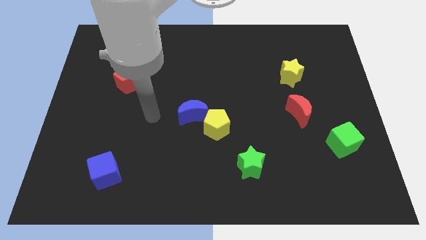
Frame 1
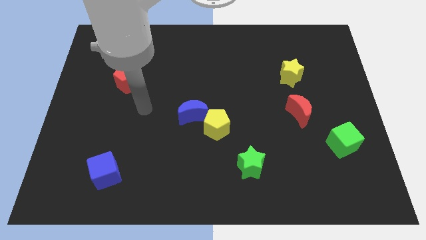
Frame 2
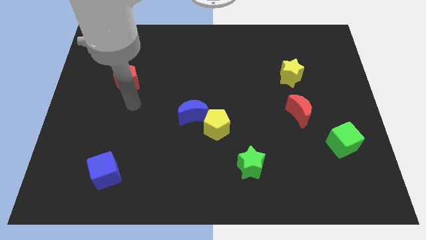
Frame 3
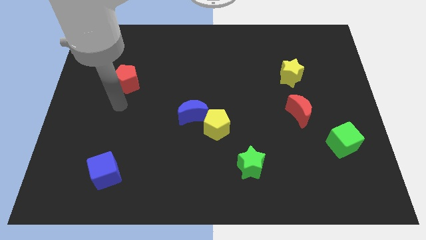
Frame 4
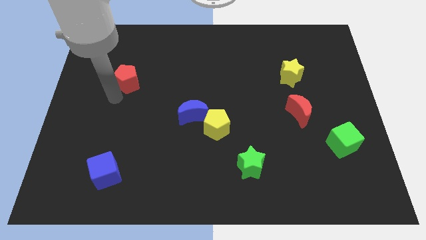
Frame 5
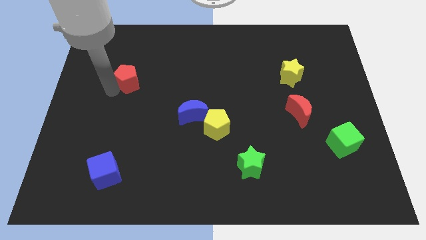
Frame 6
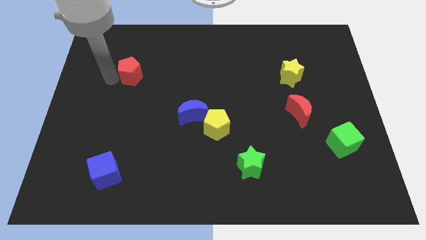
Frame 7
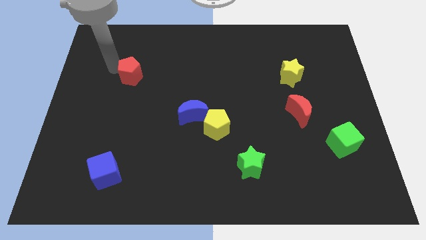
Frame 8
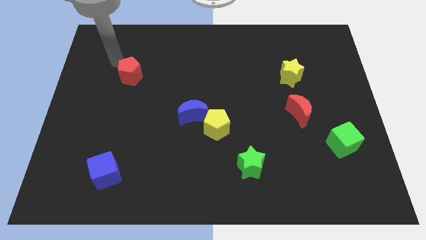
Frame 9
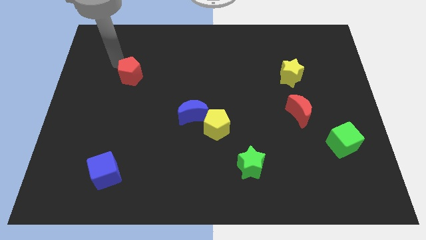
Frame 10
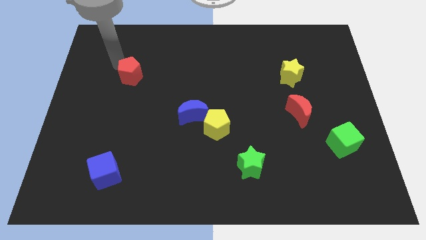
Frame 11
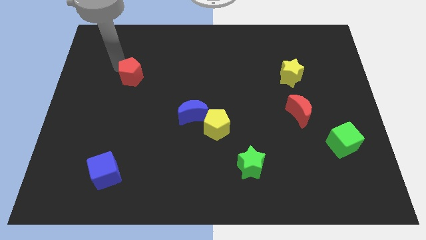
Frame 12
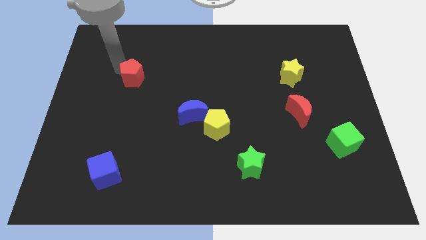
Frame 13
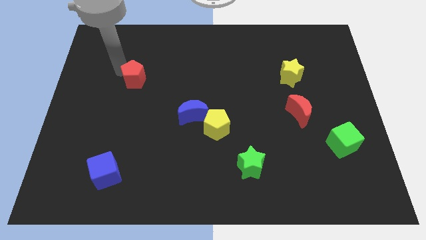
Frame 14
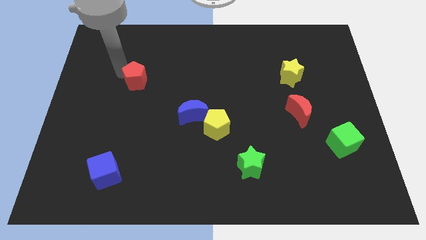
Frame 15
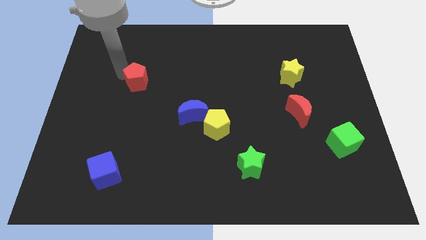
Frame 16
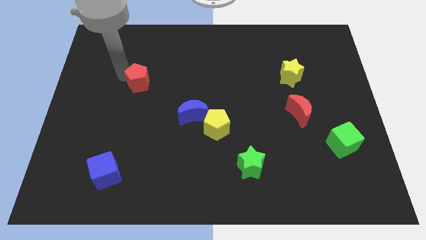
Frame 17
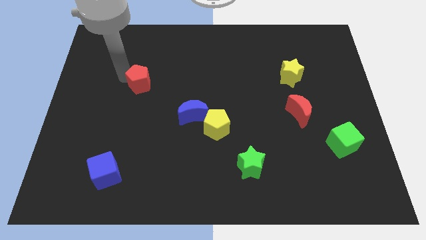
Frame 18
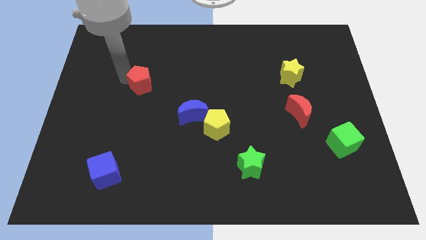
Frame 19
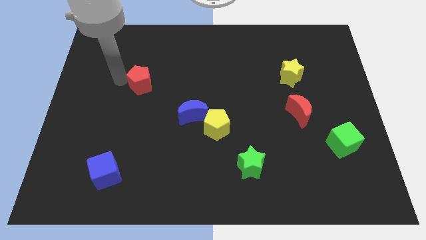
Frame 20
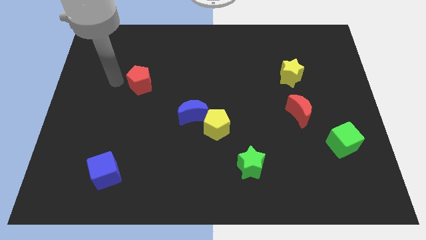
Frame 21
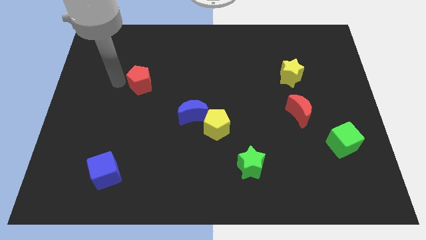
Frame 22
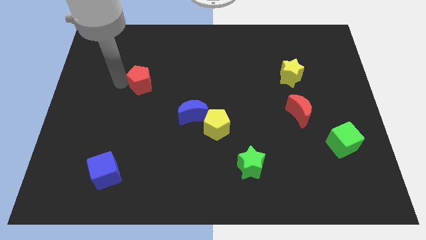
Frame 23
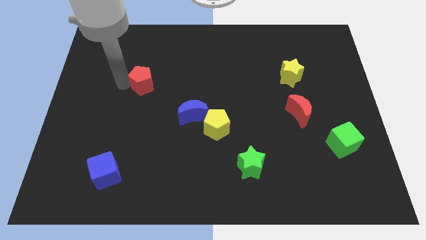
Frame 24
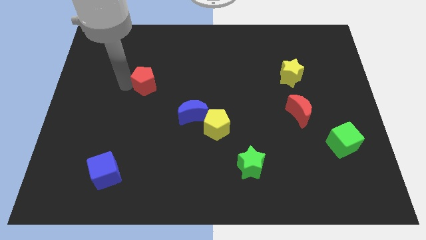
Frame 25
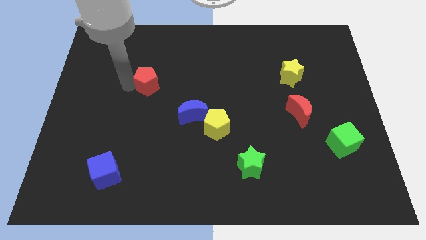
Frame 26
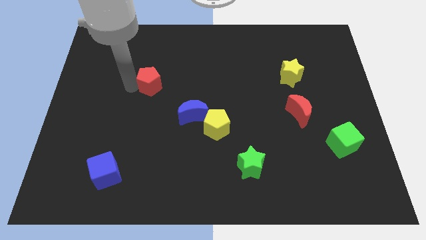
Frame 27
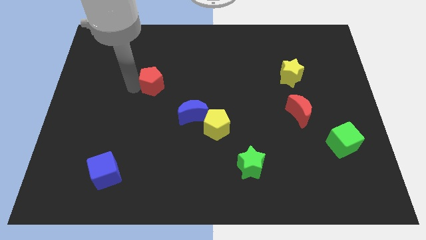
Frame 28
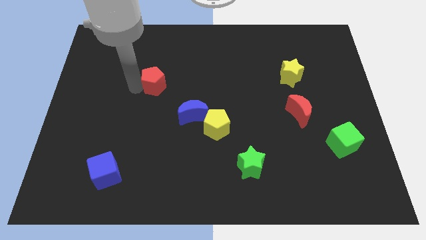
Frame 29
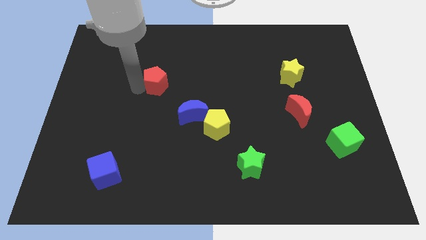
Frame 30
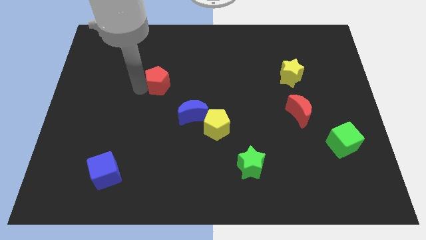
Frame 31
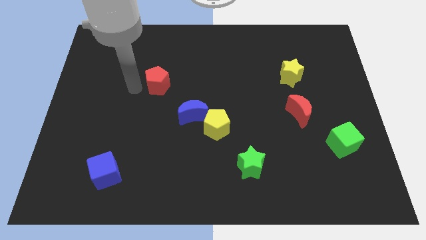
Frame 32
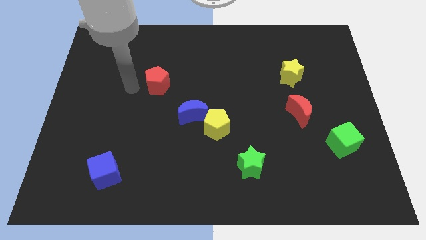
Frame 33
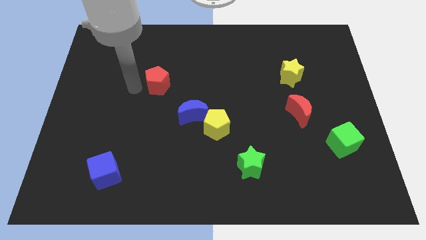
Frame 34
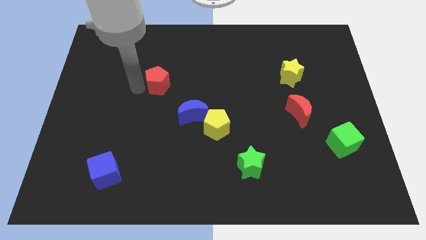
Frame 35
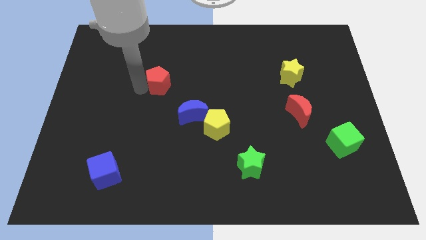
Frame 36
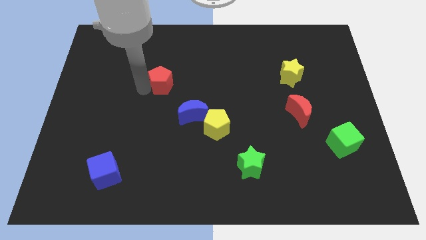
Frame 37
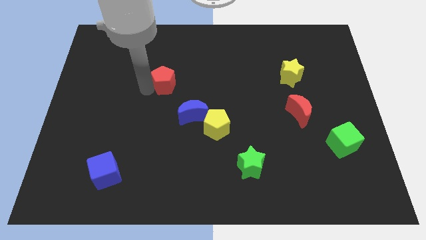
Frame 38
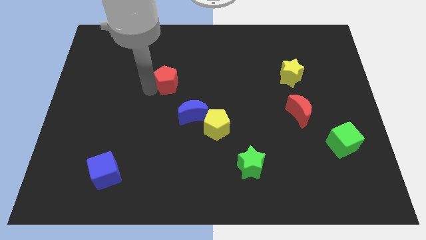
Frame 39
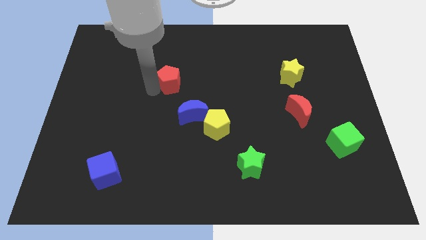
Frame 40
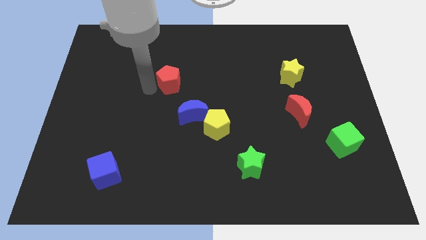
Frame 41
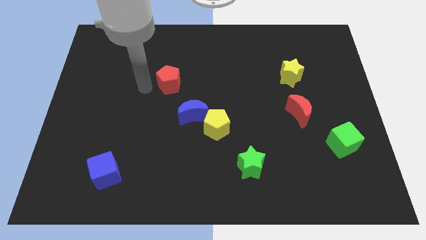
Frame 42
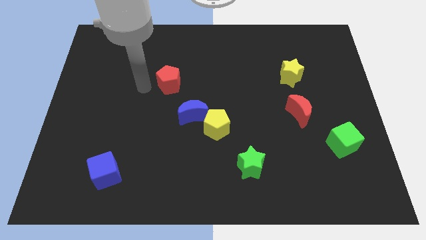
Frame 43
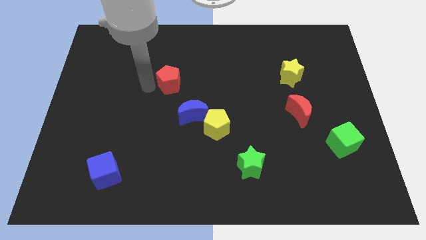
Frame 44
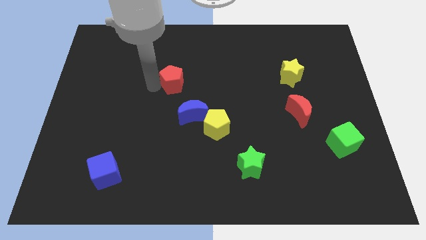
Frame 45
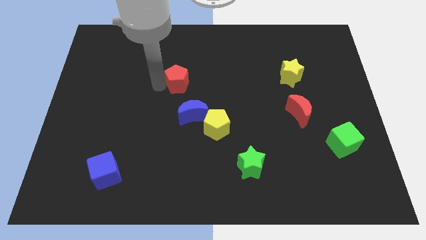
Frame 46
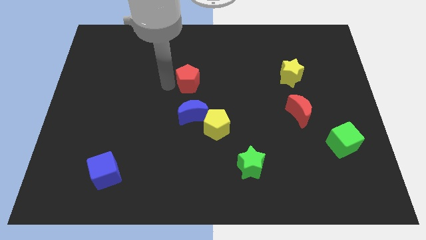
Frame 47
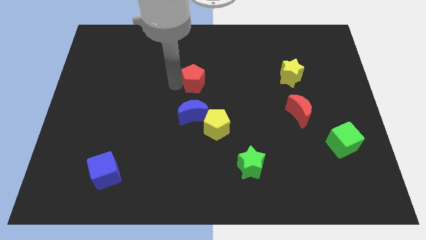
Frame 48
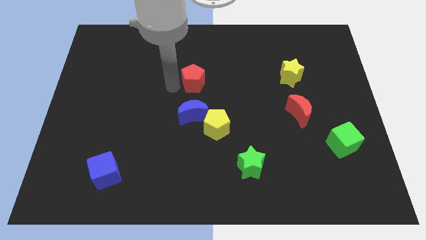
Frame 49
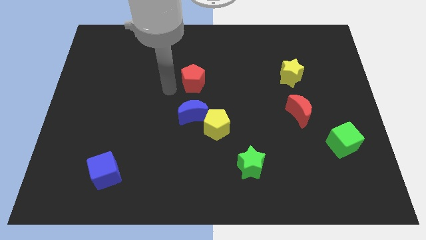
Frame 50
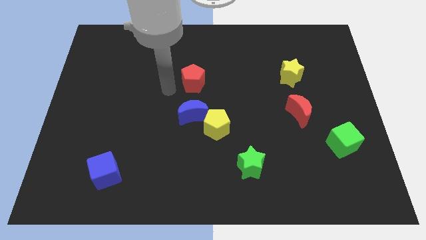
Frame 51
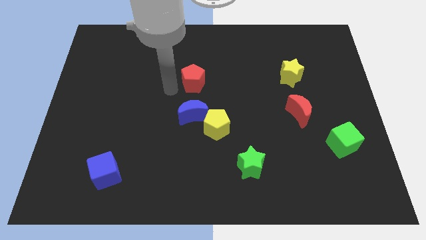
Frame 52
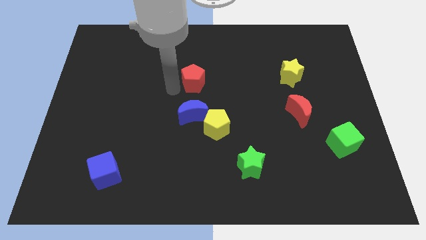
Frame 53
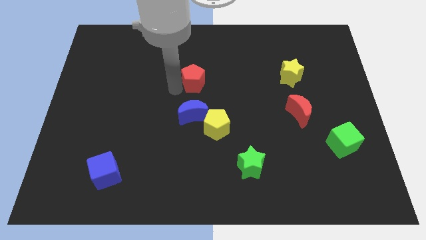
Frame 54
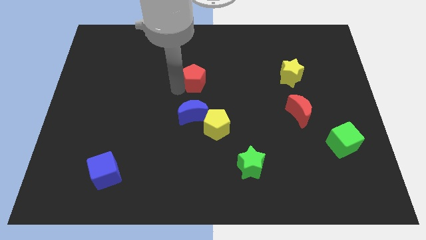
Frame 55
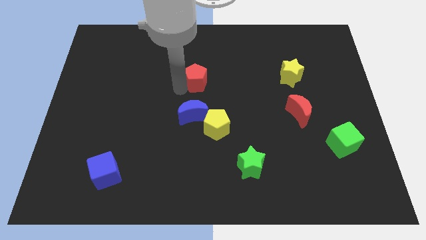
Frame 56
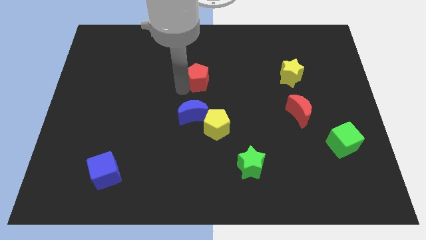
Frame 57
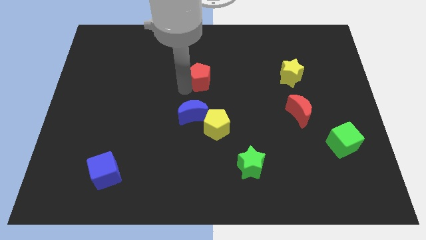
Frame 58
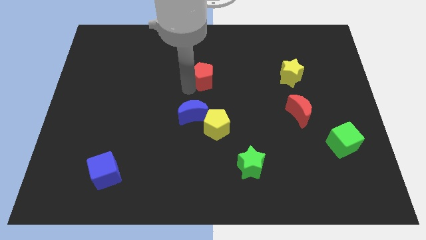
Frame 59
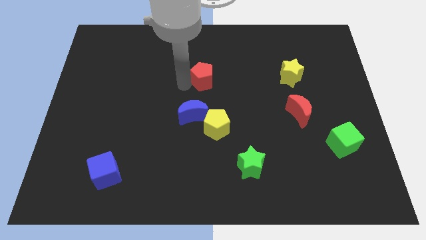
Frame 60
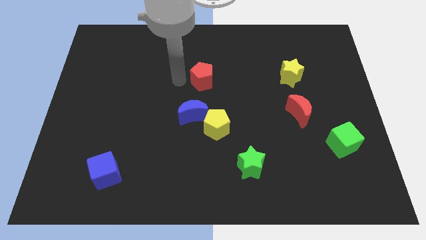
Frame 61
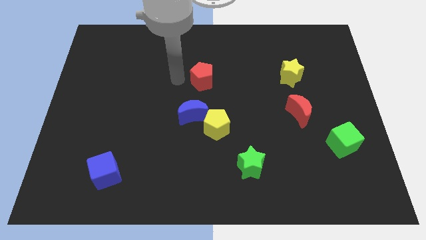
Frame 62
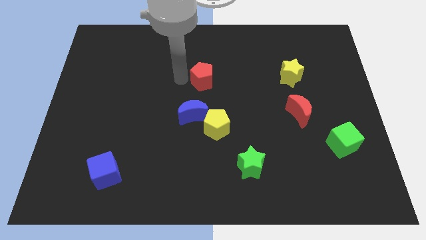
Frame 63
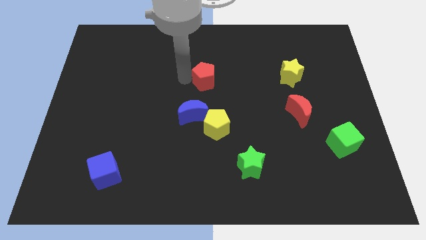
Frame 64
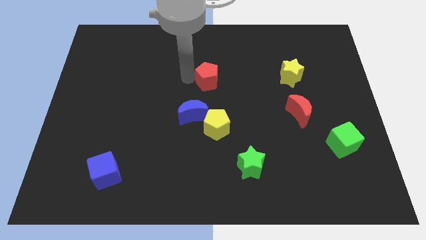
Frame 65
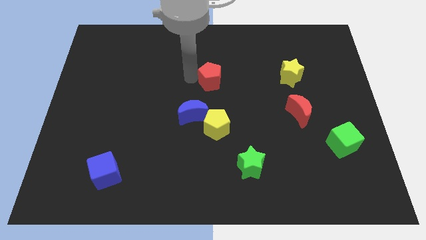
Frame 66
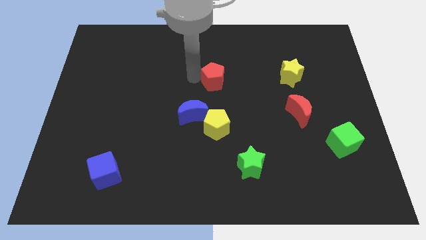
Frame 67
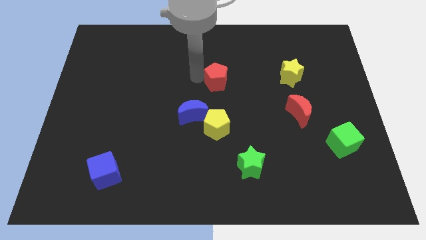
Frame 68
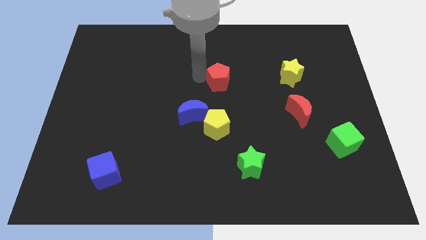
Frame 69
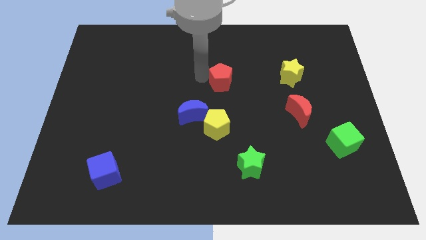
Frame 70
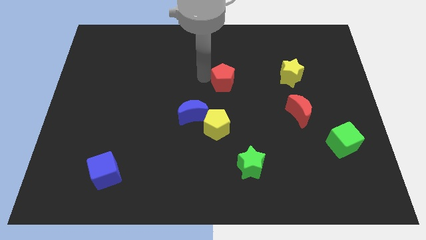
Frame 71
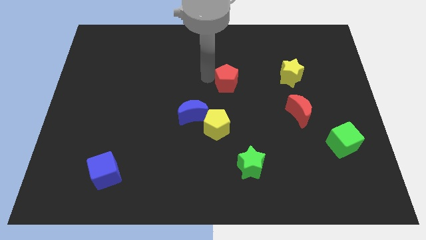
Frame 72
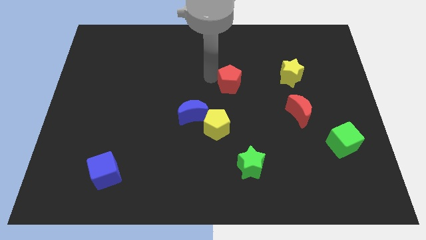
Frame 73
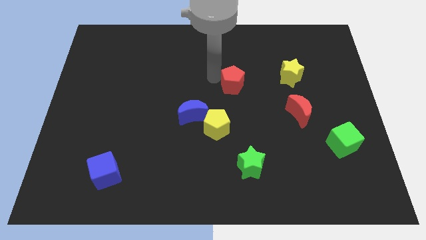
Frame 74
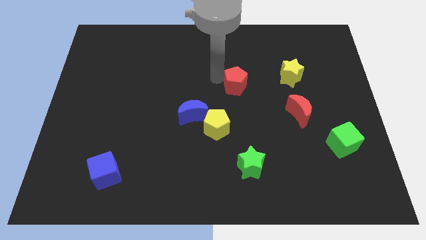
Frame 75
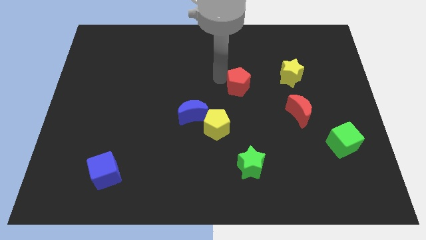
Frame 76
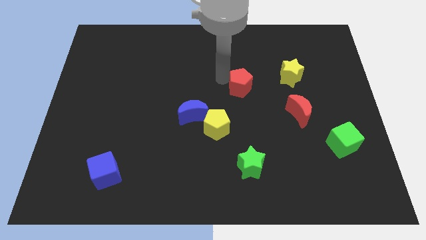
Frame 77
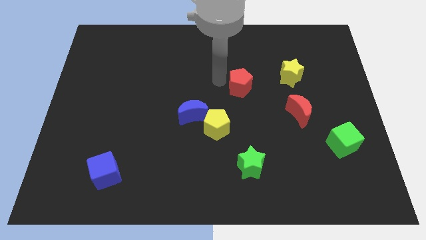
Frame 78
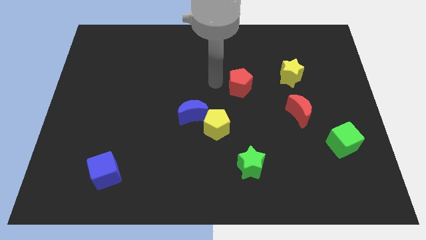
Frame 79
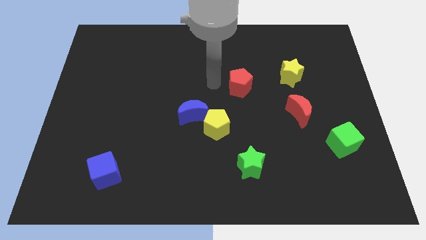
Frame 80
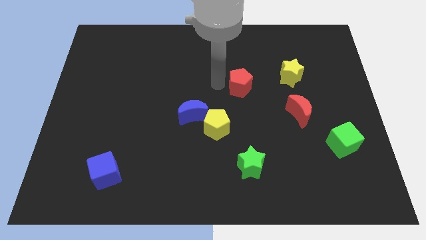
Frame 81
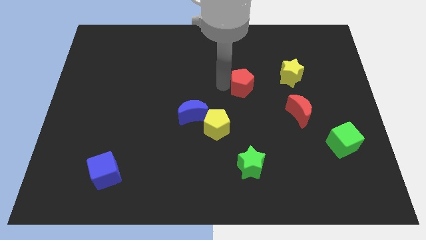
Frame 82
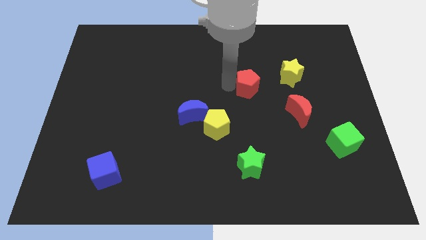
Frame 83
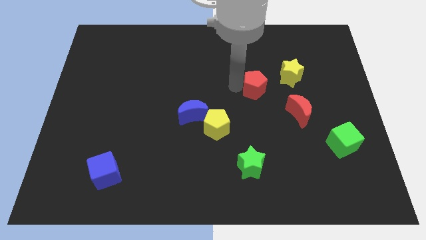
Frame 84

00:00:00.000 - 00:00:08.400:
put the red pentagon to the bottom left side of the yellow star
